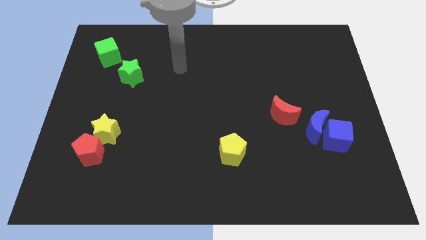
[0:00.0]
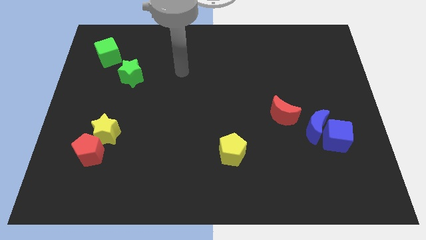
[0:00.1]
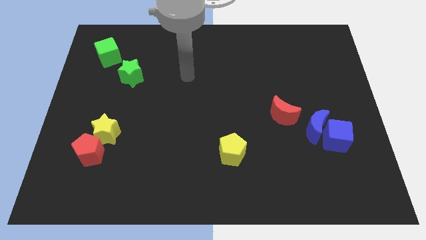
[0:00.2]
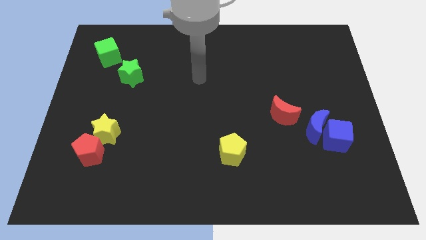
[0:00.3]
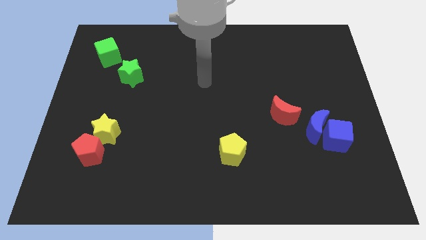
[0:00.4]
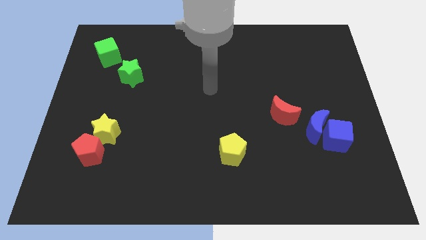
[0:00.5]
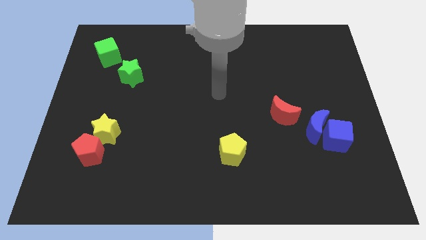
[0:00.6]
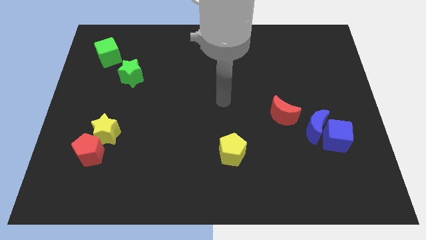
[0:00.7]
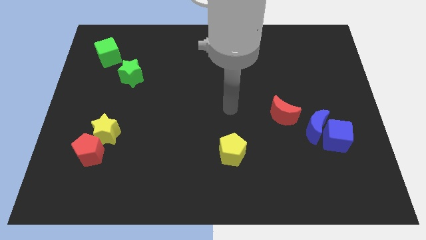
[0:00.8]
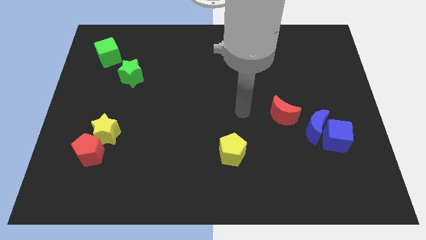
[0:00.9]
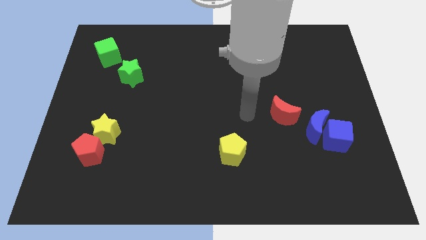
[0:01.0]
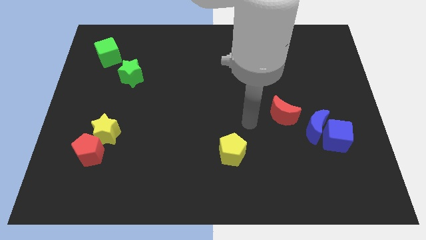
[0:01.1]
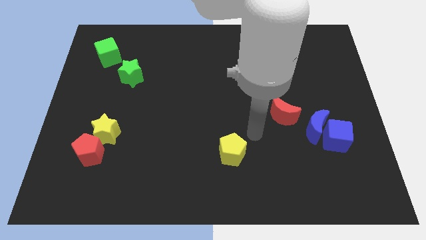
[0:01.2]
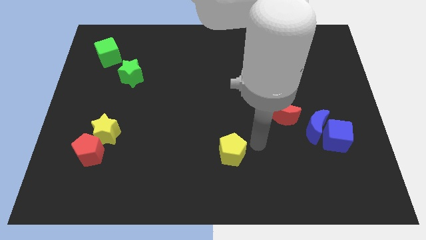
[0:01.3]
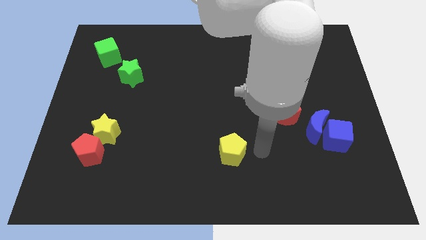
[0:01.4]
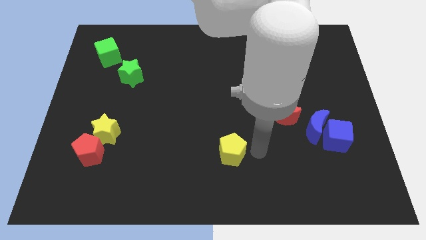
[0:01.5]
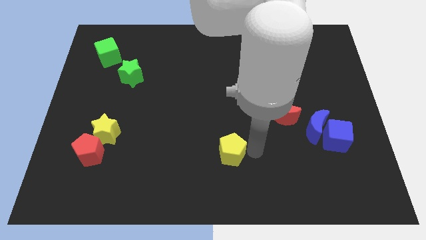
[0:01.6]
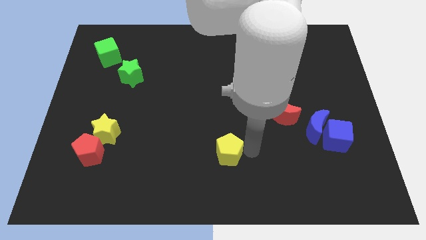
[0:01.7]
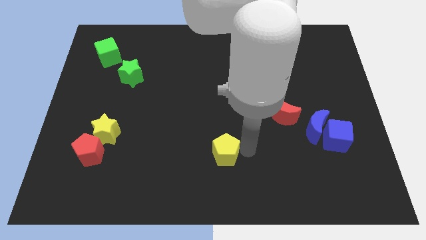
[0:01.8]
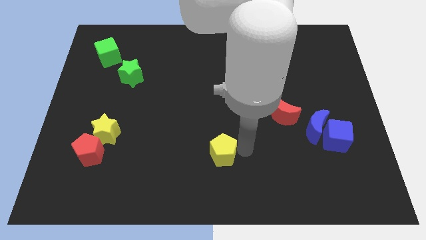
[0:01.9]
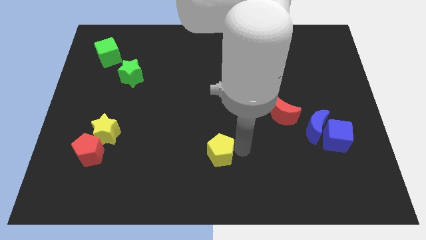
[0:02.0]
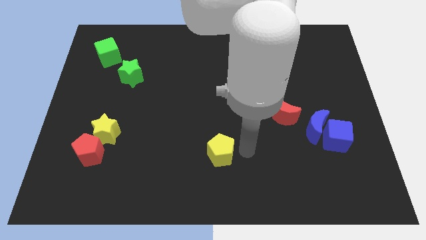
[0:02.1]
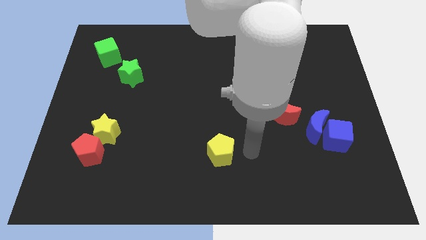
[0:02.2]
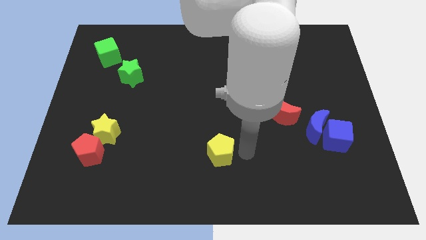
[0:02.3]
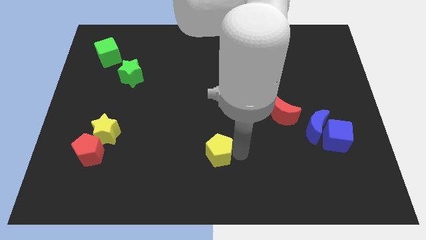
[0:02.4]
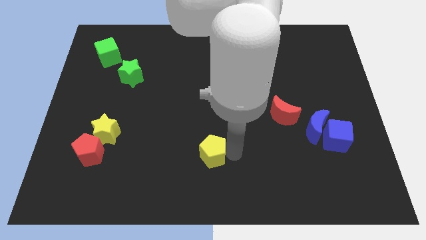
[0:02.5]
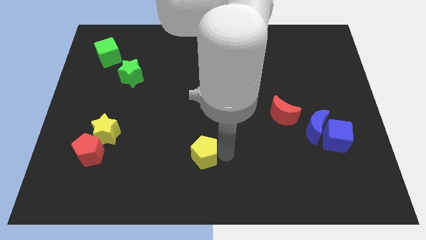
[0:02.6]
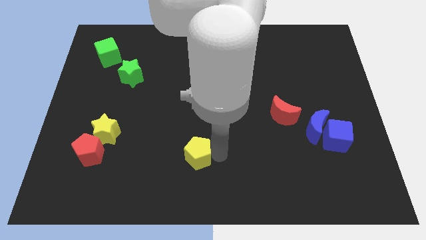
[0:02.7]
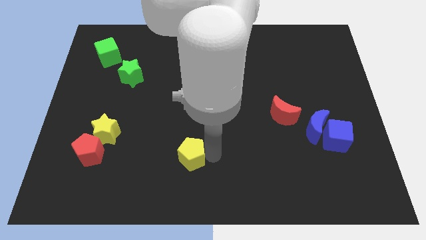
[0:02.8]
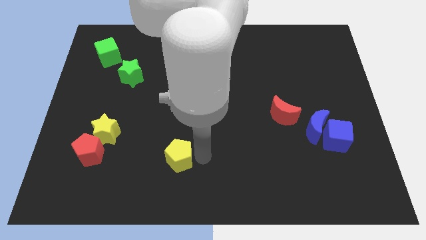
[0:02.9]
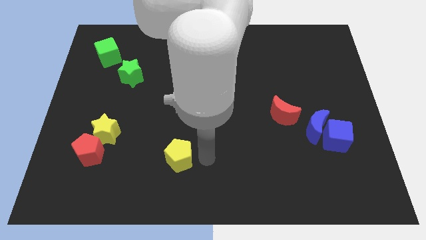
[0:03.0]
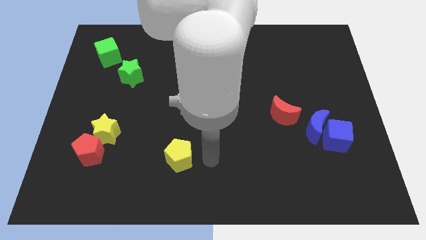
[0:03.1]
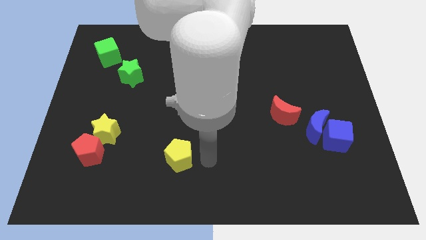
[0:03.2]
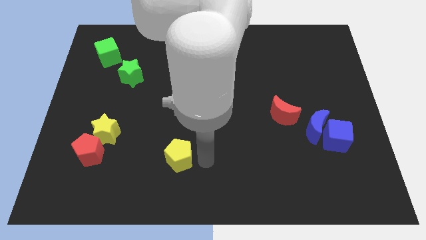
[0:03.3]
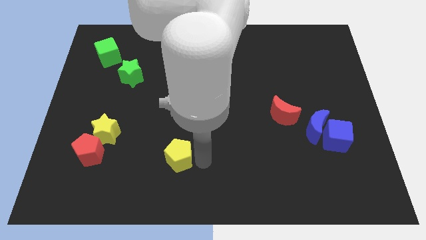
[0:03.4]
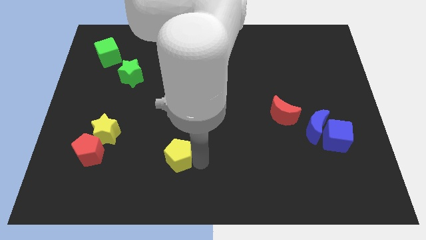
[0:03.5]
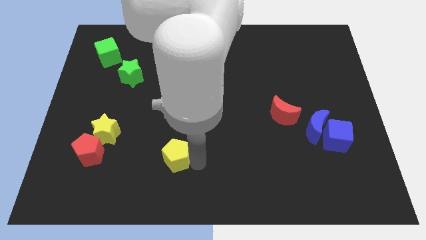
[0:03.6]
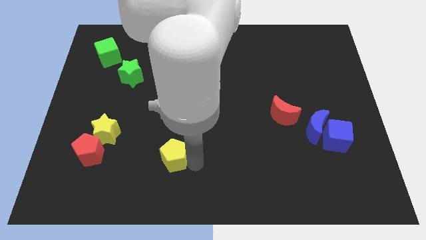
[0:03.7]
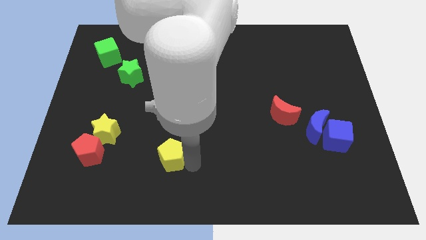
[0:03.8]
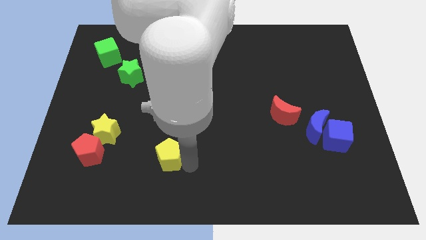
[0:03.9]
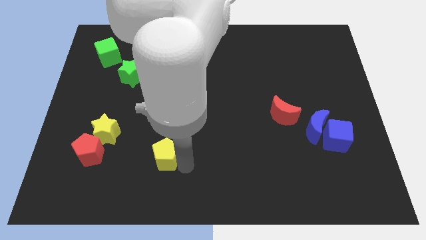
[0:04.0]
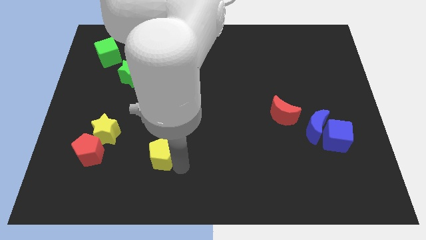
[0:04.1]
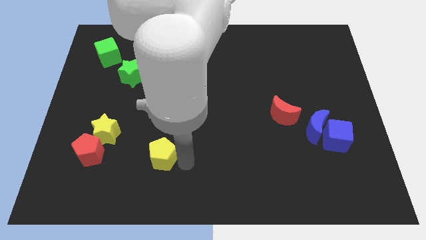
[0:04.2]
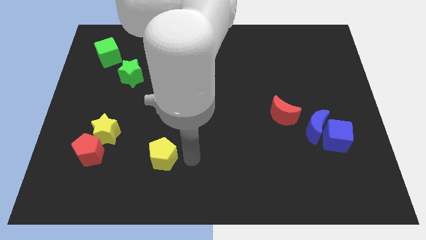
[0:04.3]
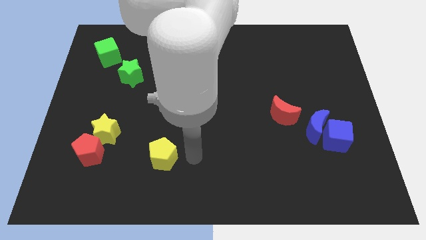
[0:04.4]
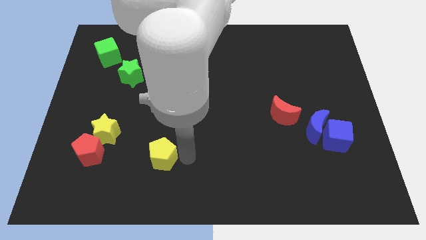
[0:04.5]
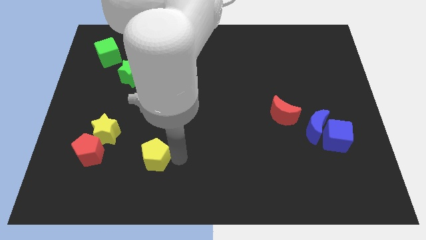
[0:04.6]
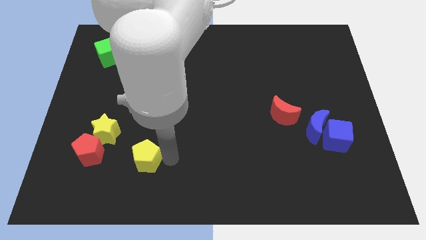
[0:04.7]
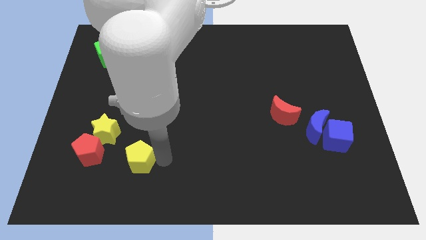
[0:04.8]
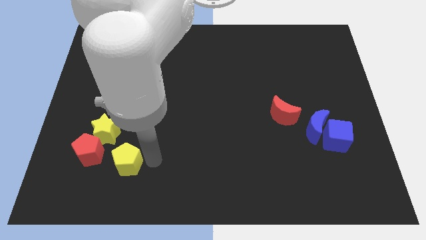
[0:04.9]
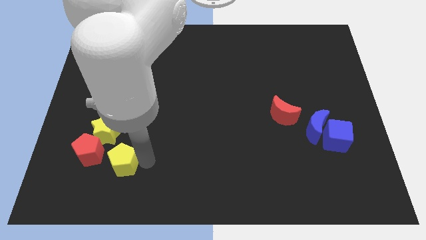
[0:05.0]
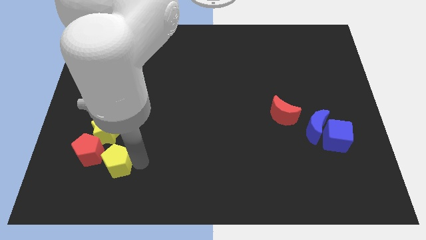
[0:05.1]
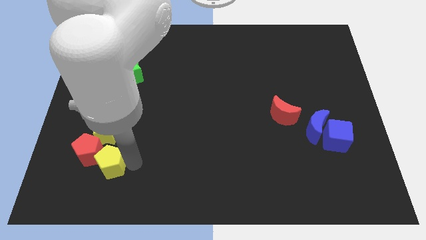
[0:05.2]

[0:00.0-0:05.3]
slide the yellow pentagon to the red pentagon

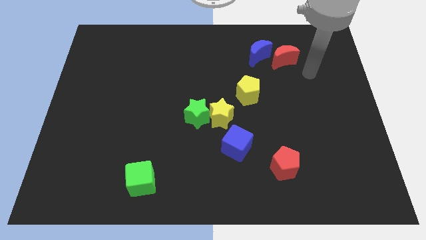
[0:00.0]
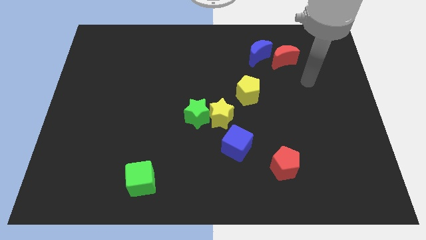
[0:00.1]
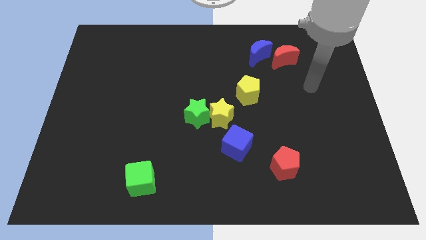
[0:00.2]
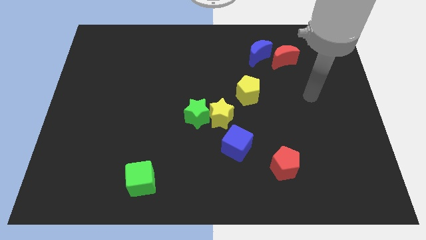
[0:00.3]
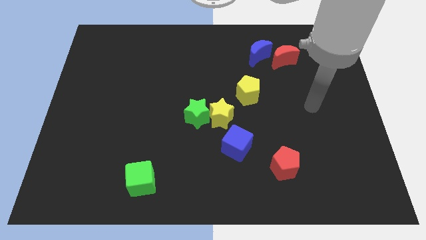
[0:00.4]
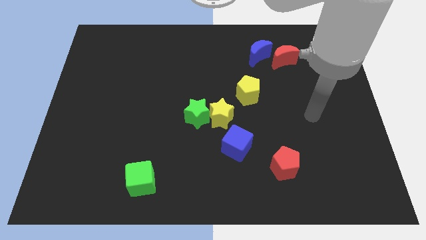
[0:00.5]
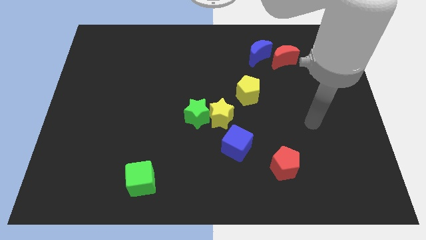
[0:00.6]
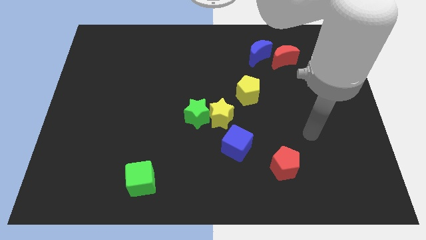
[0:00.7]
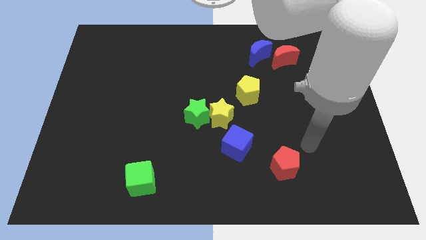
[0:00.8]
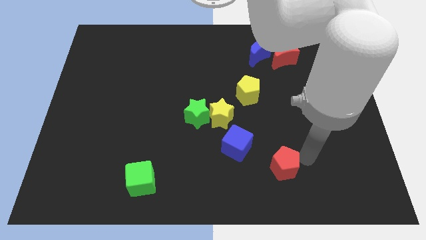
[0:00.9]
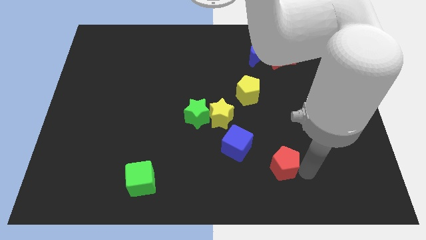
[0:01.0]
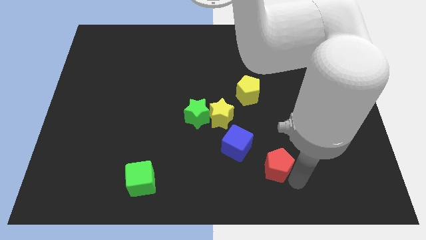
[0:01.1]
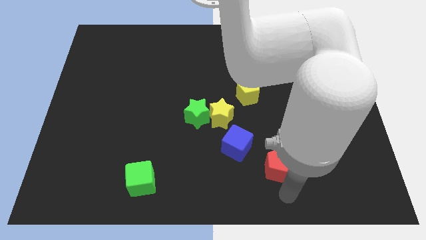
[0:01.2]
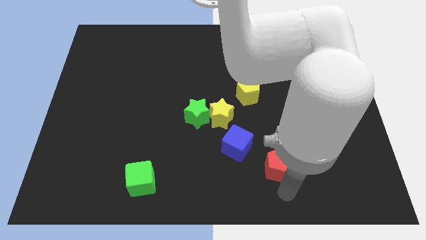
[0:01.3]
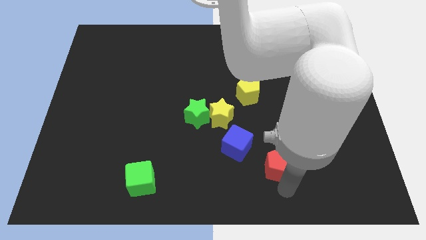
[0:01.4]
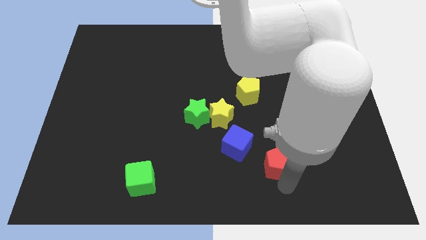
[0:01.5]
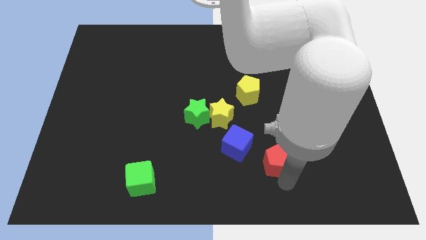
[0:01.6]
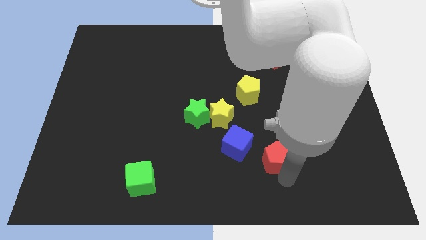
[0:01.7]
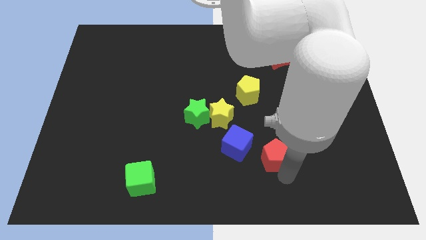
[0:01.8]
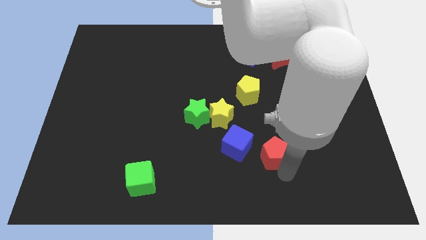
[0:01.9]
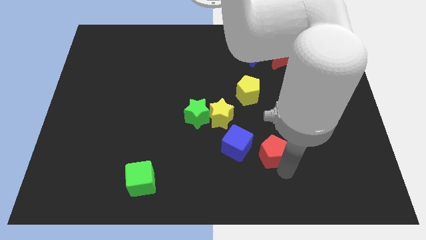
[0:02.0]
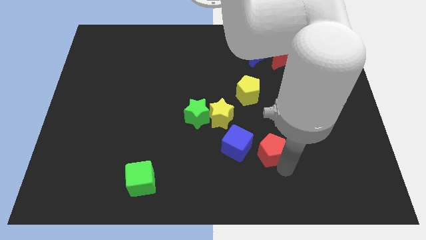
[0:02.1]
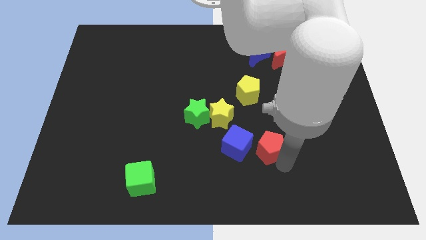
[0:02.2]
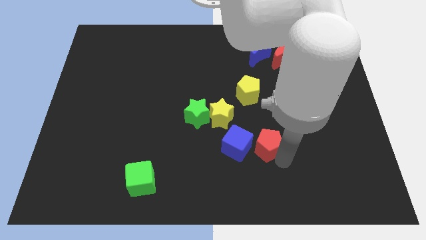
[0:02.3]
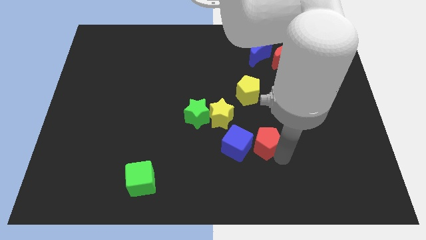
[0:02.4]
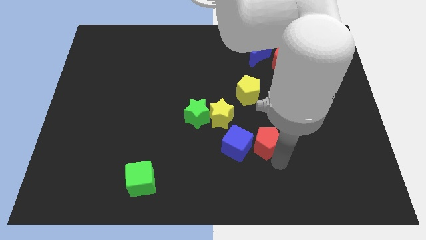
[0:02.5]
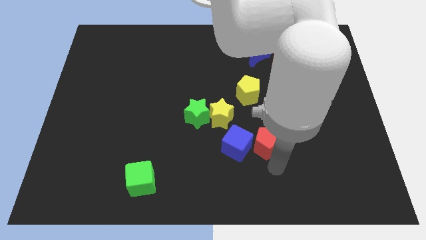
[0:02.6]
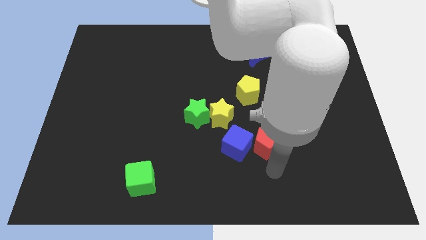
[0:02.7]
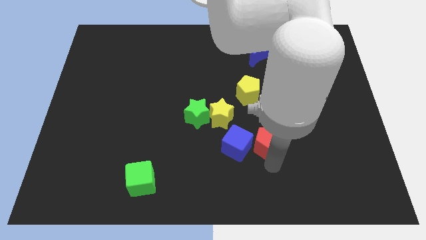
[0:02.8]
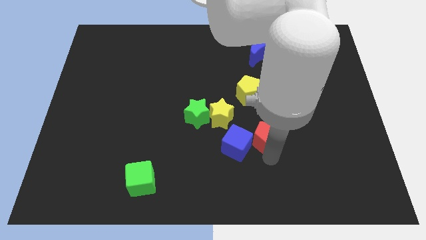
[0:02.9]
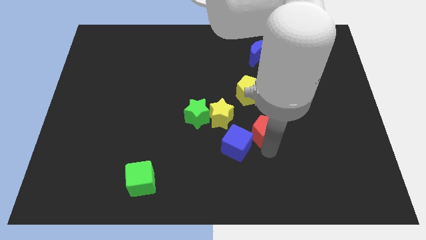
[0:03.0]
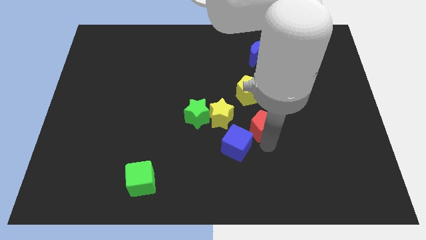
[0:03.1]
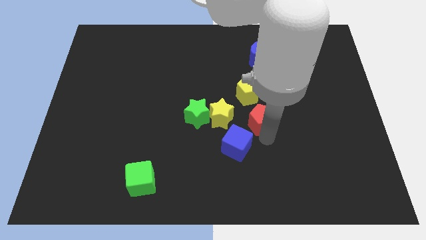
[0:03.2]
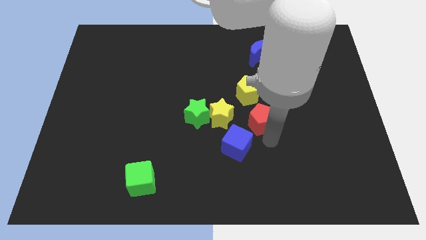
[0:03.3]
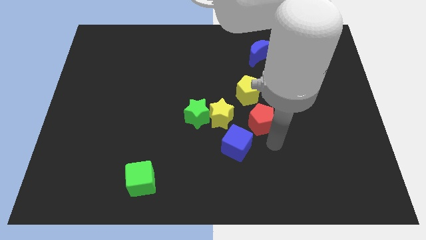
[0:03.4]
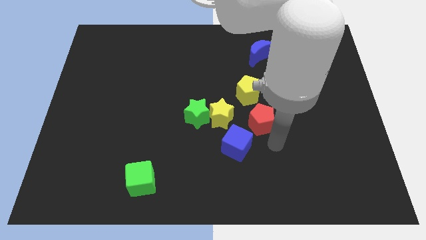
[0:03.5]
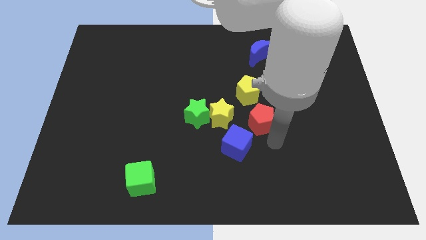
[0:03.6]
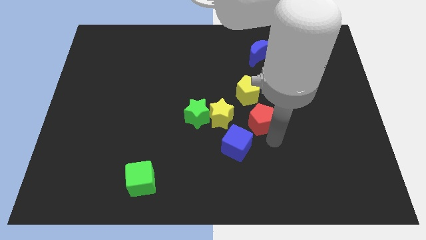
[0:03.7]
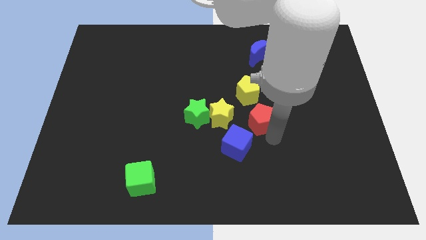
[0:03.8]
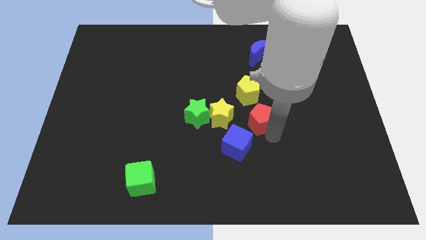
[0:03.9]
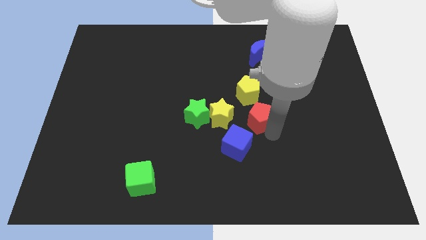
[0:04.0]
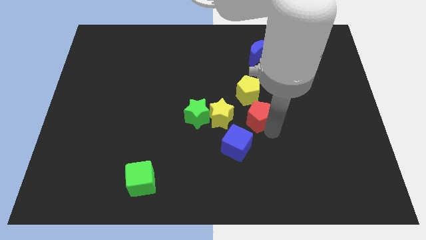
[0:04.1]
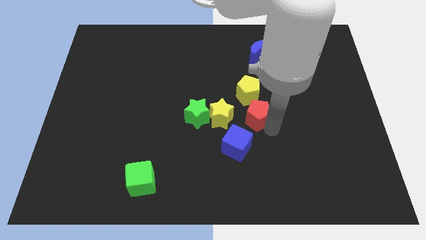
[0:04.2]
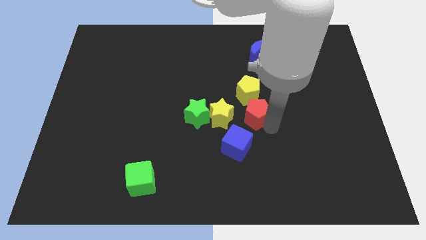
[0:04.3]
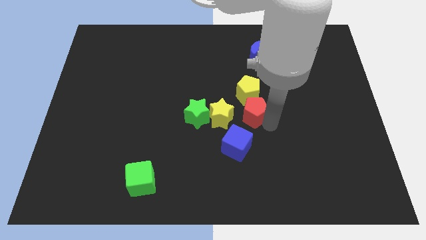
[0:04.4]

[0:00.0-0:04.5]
push the red pentagon towards the yellow pentagon
